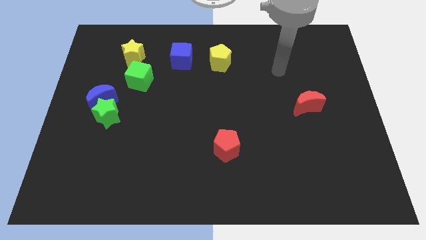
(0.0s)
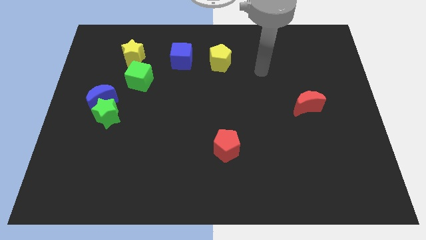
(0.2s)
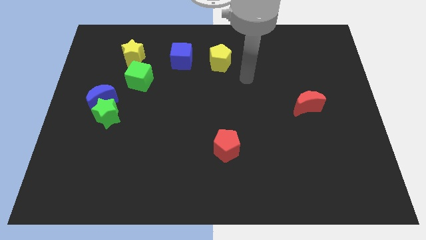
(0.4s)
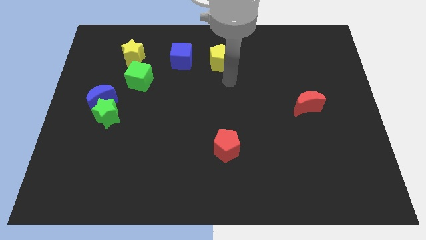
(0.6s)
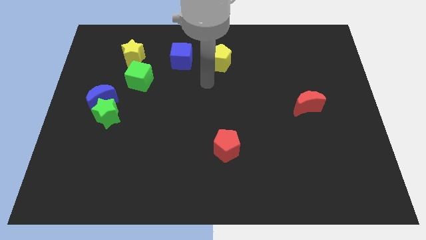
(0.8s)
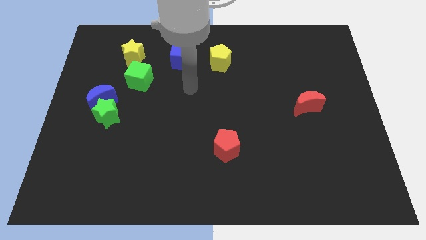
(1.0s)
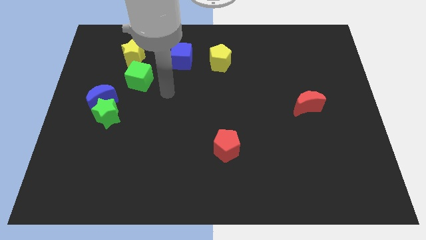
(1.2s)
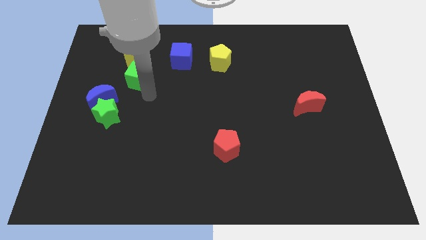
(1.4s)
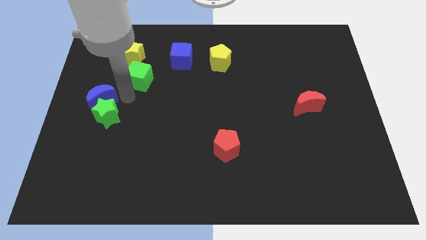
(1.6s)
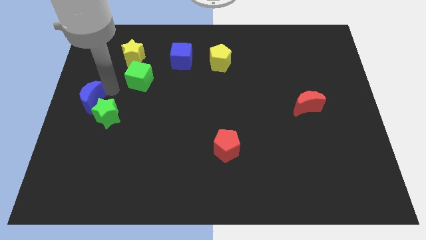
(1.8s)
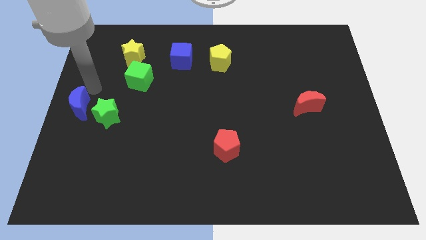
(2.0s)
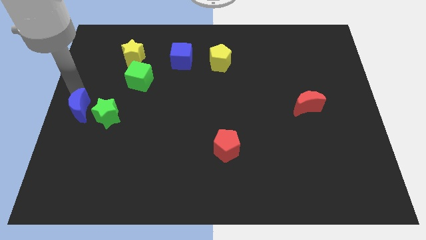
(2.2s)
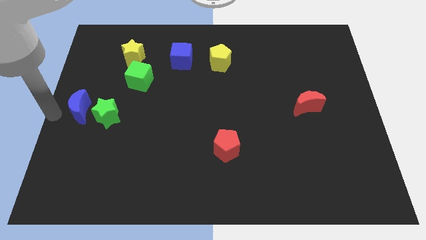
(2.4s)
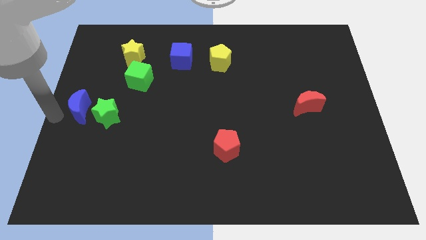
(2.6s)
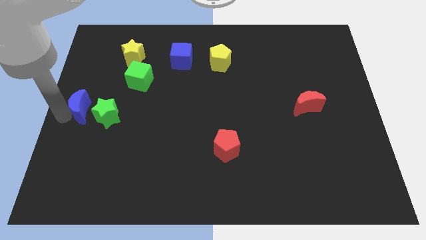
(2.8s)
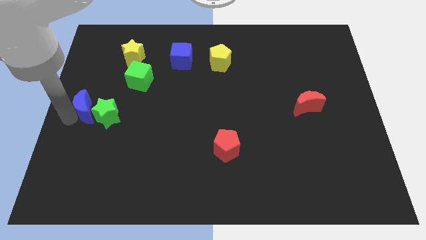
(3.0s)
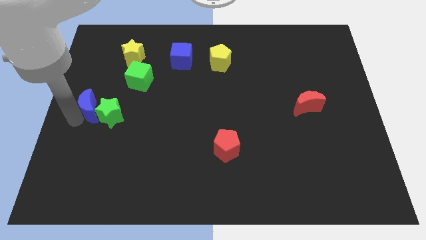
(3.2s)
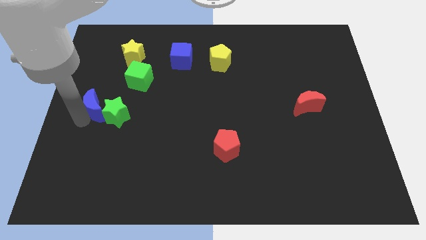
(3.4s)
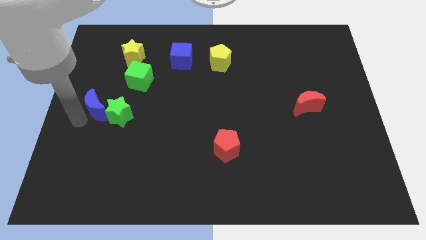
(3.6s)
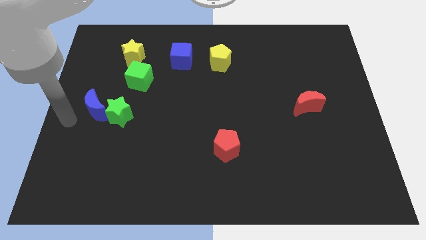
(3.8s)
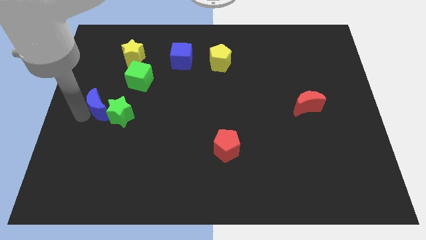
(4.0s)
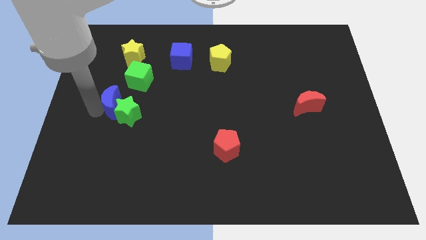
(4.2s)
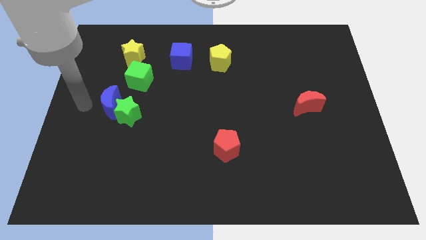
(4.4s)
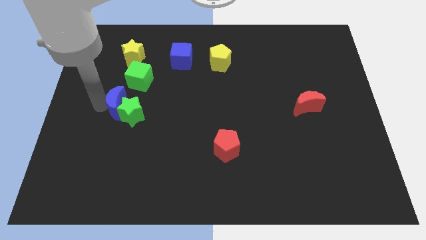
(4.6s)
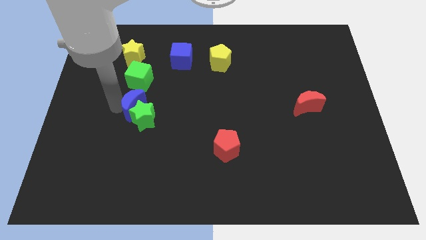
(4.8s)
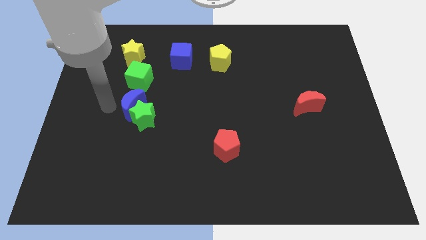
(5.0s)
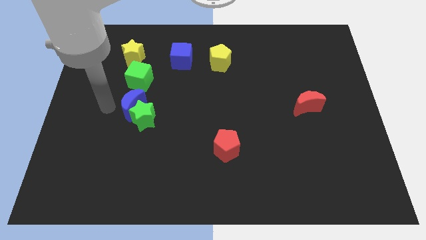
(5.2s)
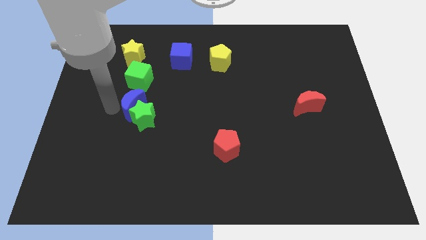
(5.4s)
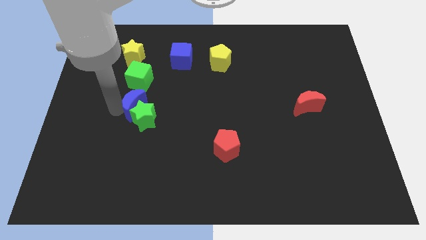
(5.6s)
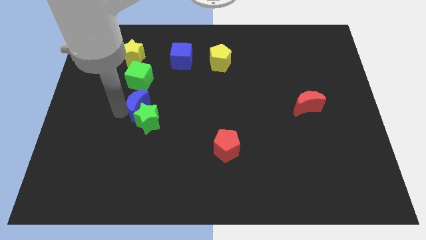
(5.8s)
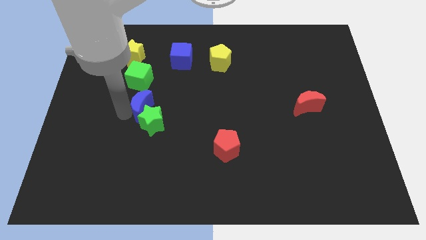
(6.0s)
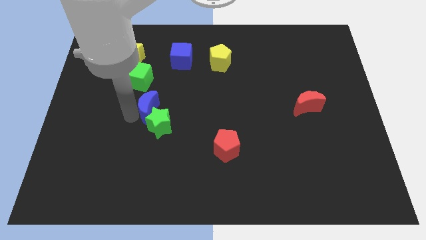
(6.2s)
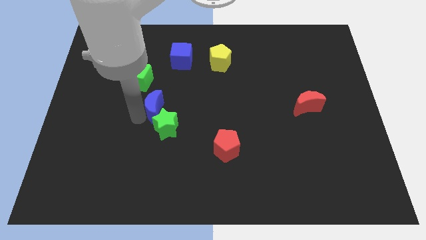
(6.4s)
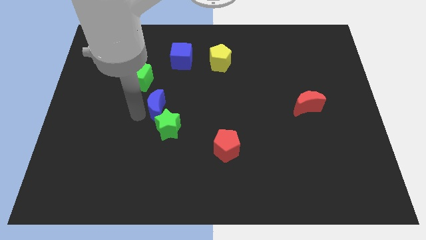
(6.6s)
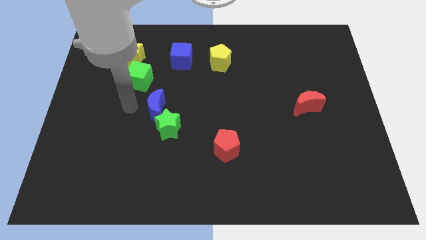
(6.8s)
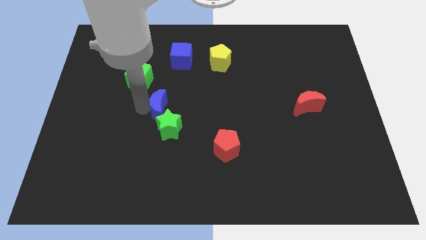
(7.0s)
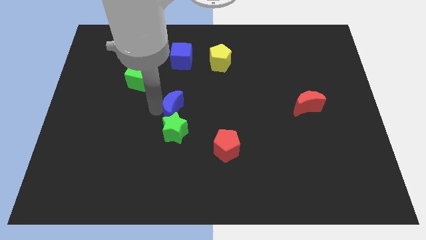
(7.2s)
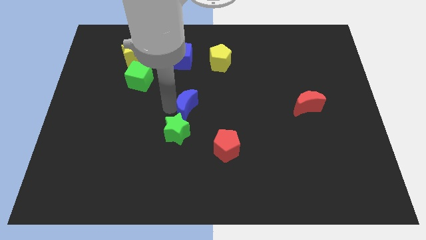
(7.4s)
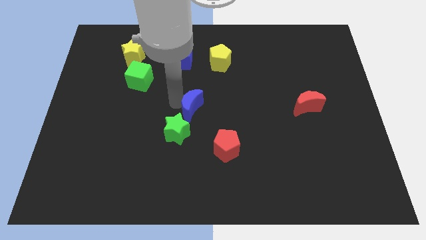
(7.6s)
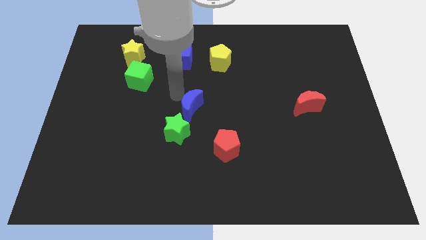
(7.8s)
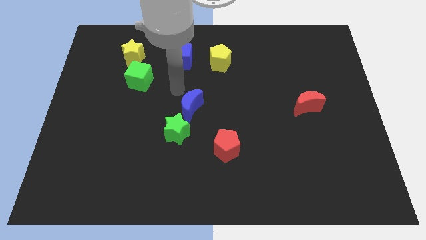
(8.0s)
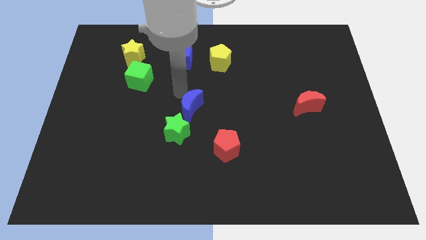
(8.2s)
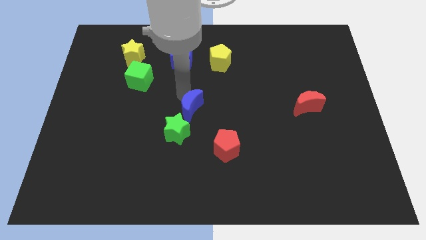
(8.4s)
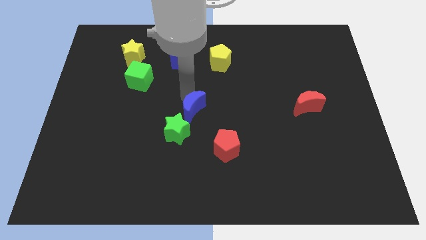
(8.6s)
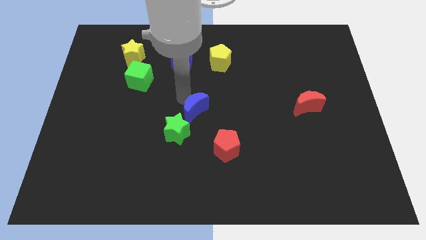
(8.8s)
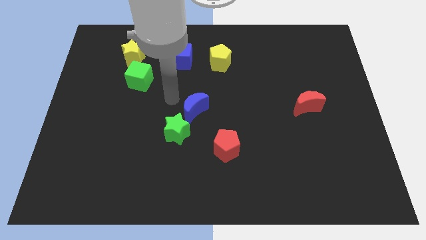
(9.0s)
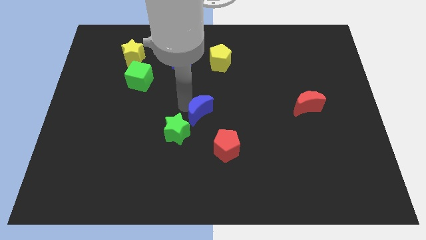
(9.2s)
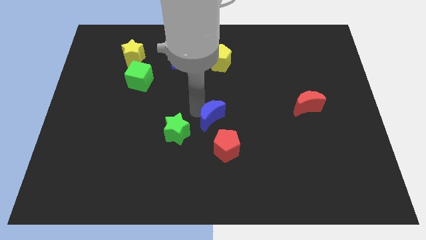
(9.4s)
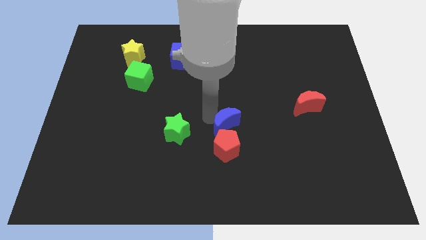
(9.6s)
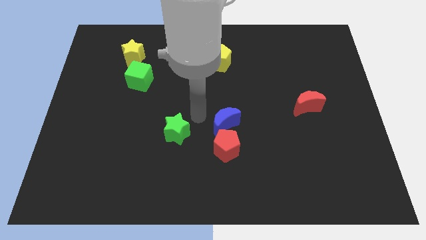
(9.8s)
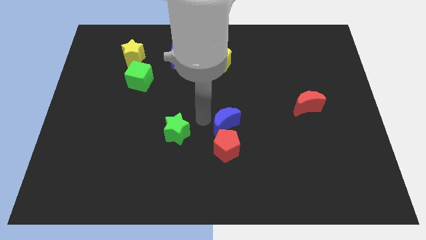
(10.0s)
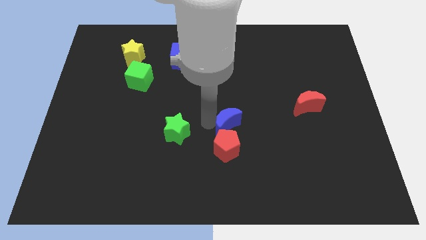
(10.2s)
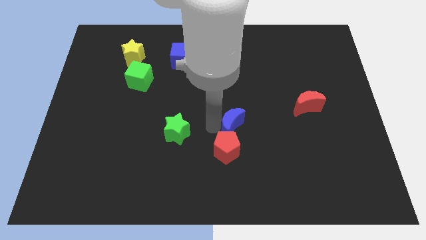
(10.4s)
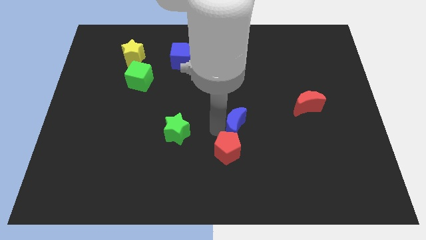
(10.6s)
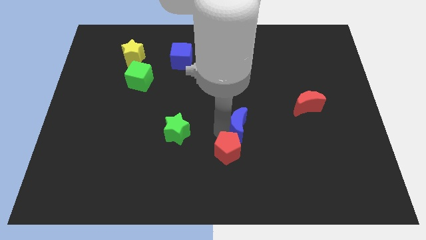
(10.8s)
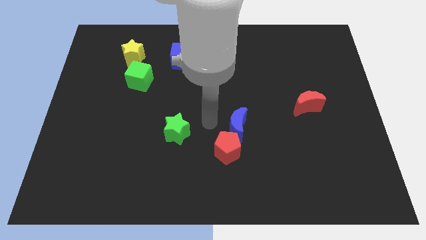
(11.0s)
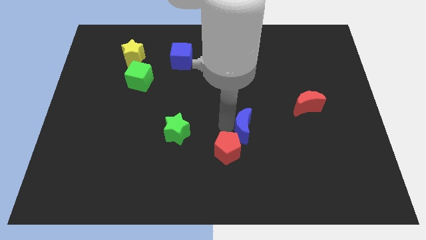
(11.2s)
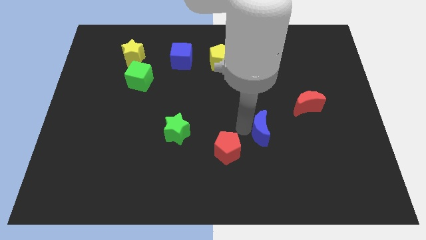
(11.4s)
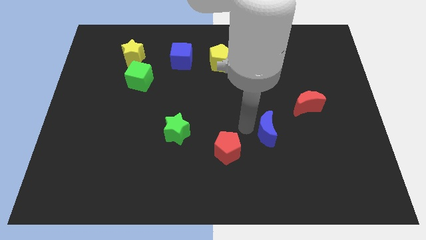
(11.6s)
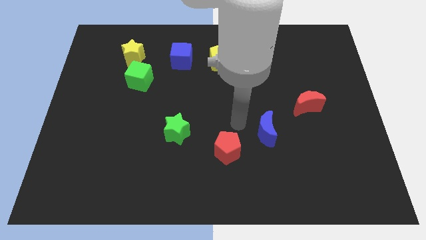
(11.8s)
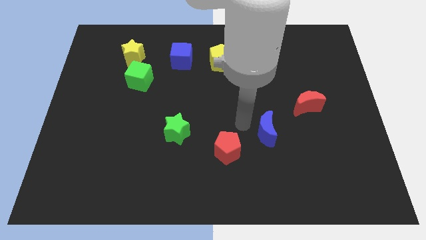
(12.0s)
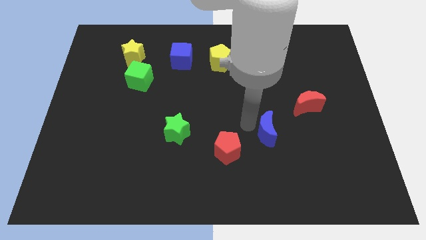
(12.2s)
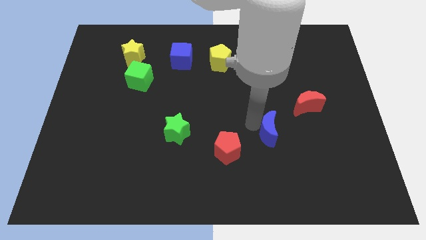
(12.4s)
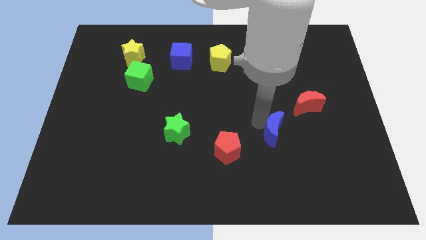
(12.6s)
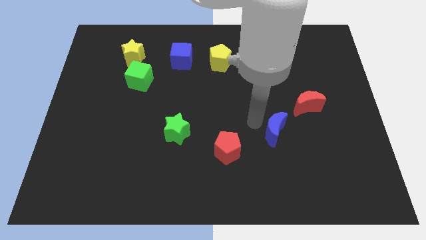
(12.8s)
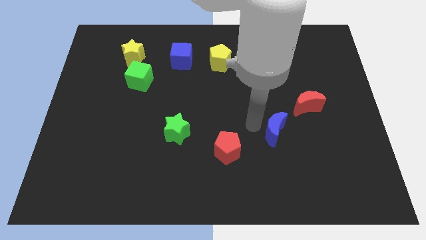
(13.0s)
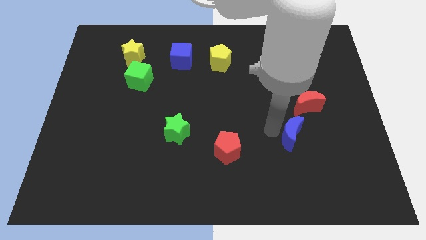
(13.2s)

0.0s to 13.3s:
push the blue moon below the red moon
